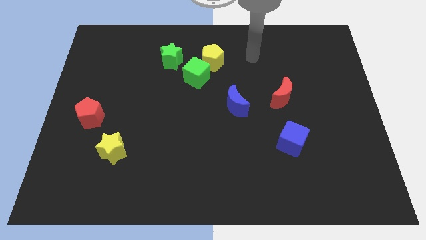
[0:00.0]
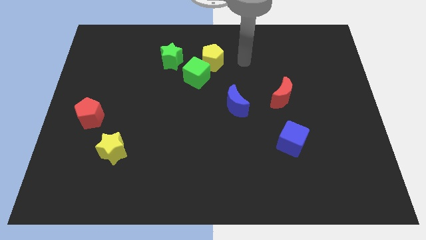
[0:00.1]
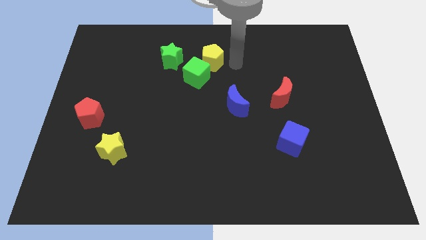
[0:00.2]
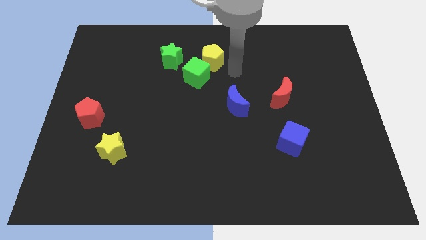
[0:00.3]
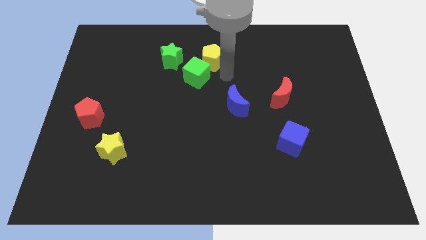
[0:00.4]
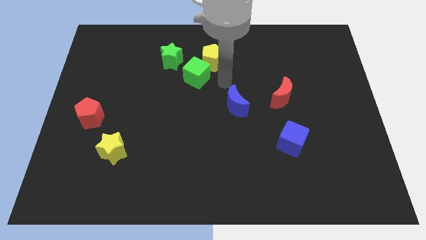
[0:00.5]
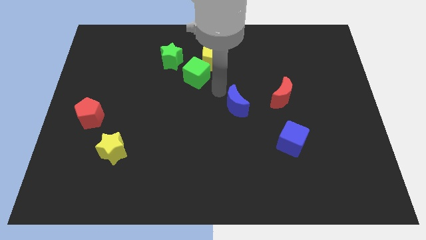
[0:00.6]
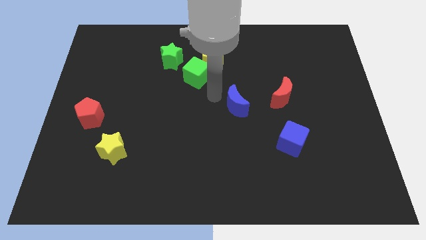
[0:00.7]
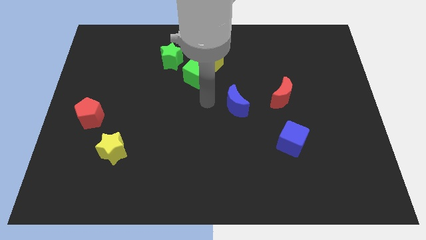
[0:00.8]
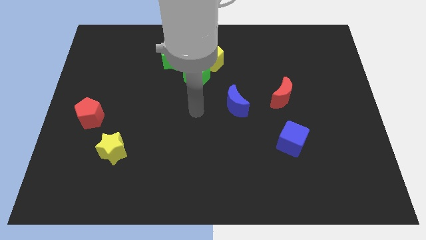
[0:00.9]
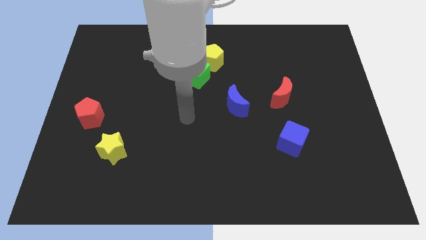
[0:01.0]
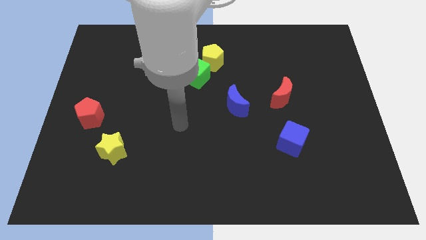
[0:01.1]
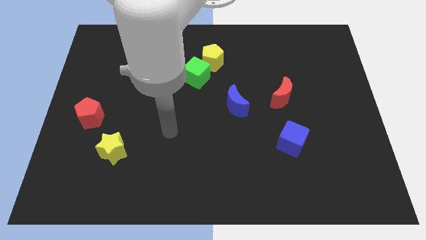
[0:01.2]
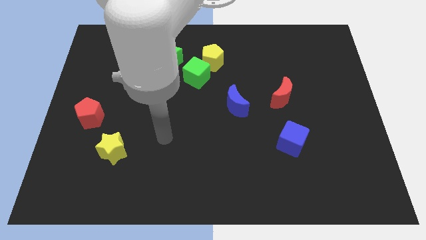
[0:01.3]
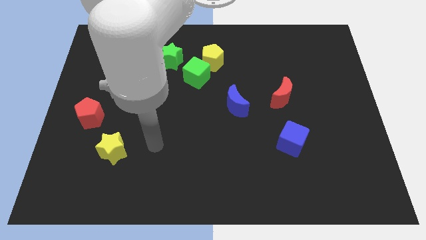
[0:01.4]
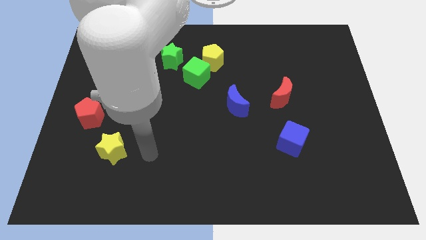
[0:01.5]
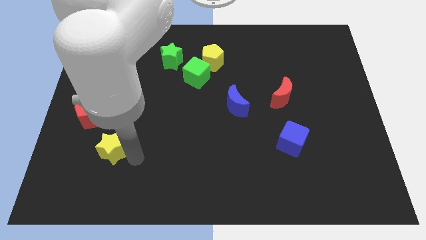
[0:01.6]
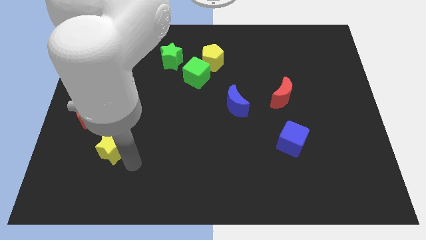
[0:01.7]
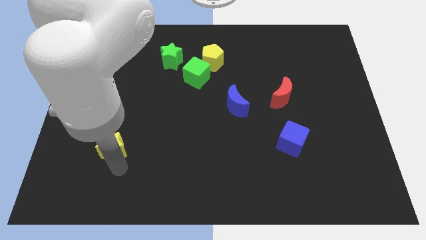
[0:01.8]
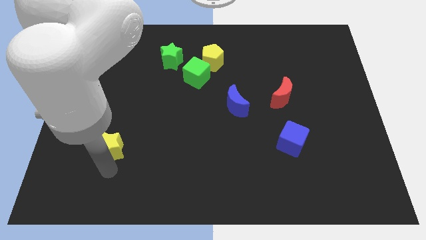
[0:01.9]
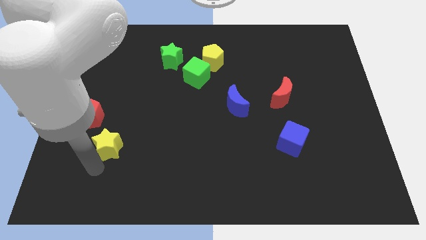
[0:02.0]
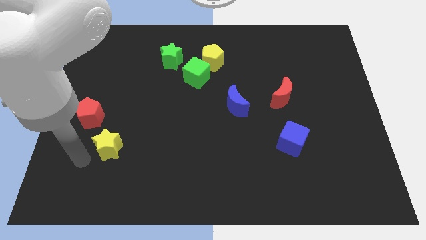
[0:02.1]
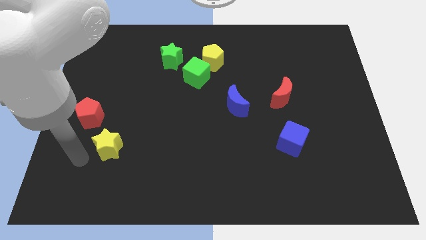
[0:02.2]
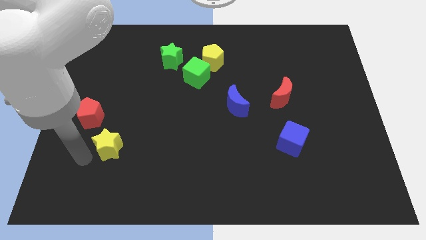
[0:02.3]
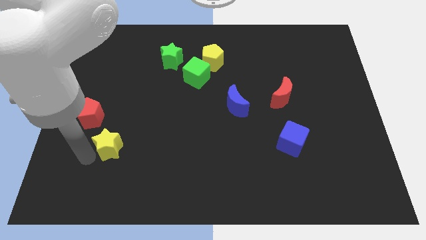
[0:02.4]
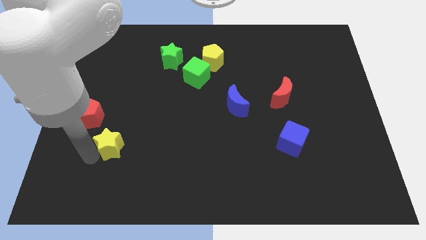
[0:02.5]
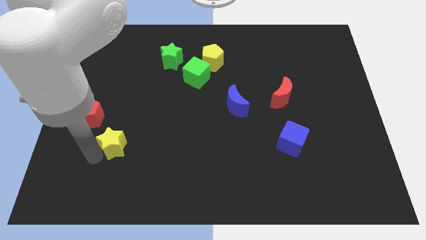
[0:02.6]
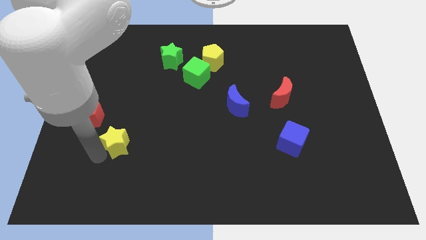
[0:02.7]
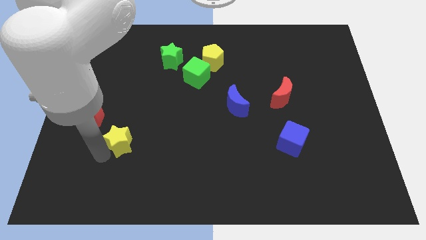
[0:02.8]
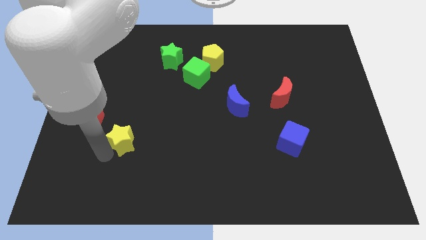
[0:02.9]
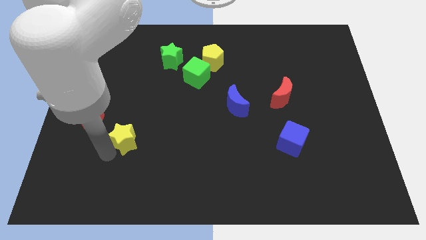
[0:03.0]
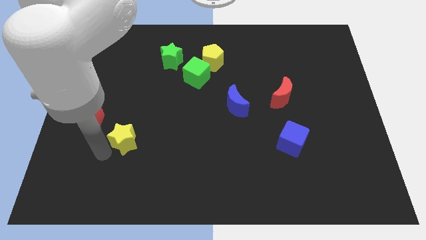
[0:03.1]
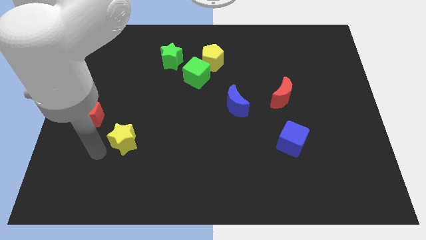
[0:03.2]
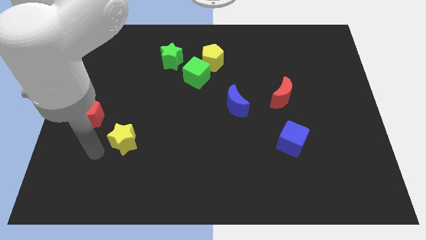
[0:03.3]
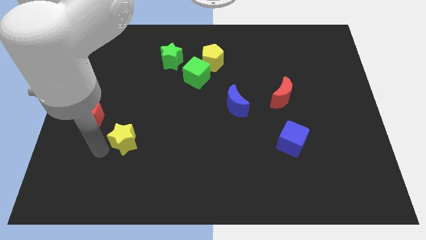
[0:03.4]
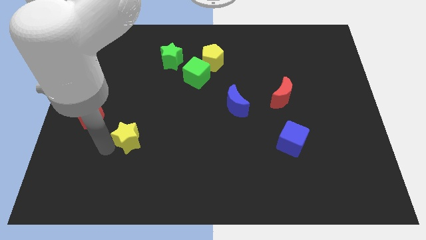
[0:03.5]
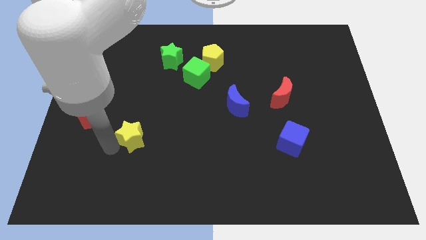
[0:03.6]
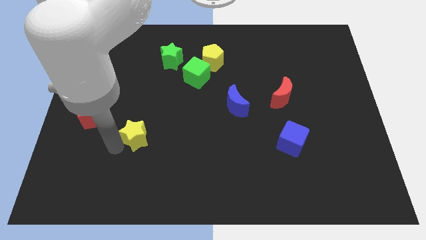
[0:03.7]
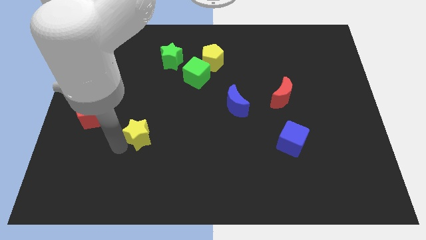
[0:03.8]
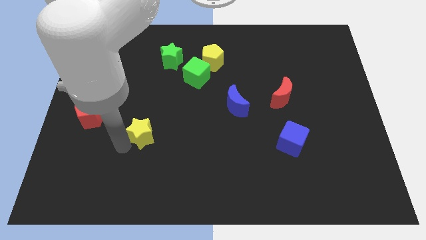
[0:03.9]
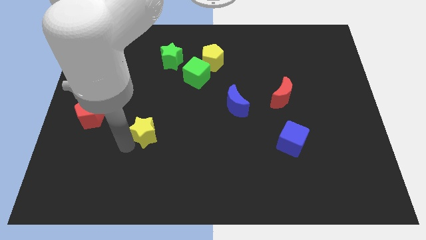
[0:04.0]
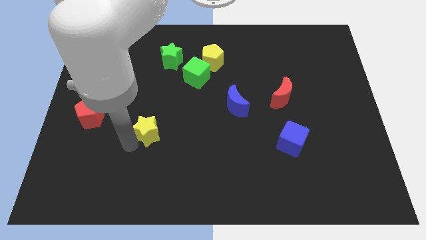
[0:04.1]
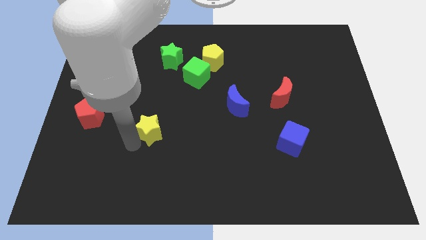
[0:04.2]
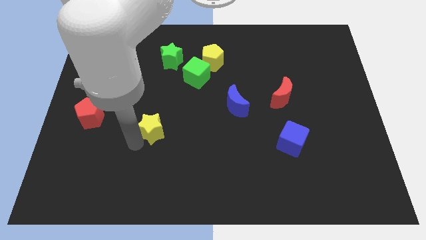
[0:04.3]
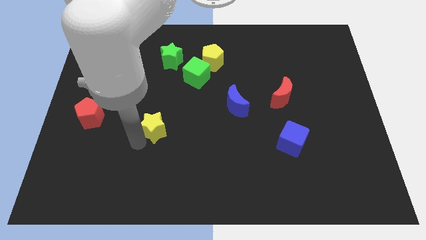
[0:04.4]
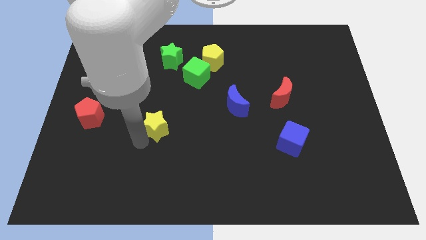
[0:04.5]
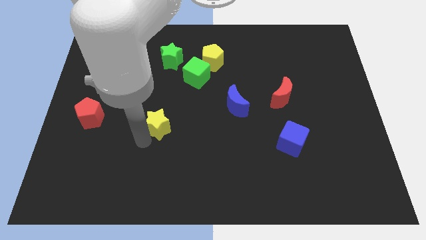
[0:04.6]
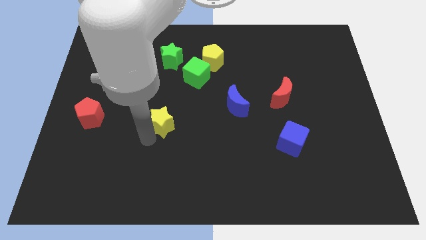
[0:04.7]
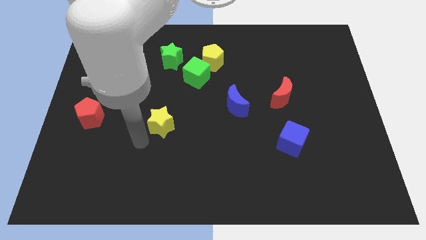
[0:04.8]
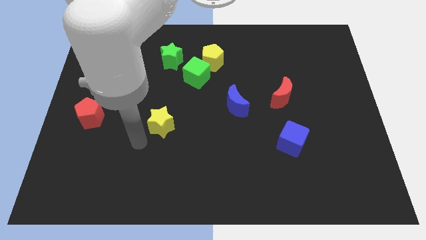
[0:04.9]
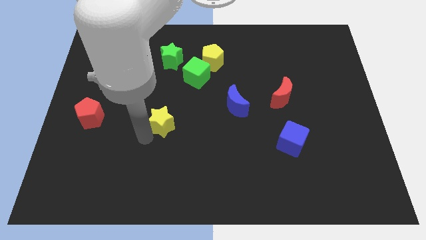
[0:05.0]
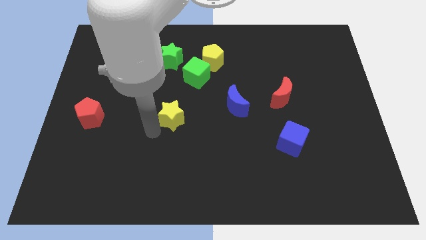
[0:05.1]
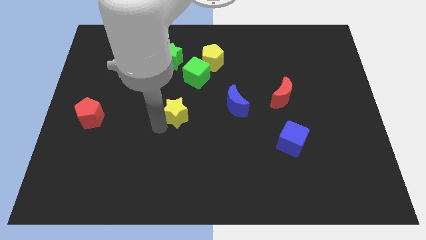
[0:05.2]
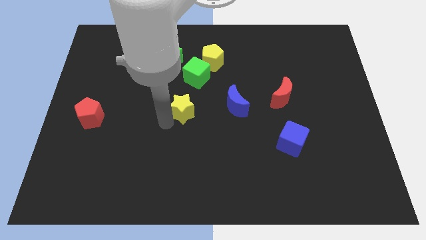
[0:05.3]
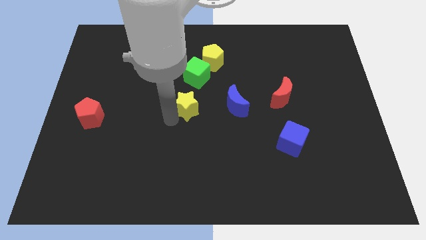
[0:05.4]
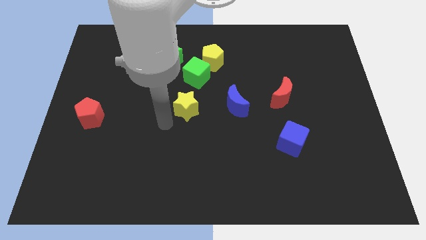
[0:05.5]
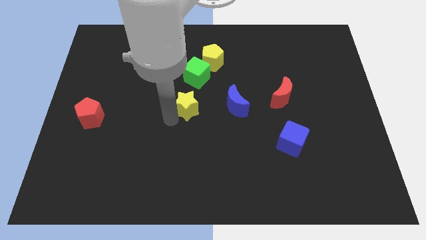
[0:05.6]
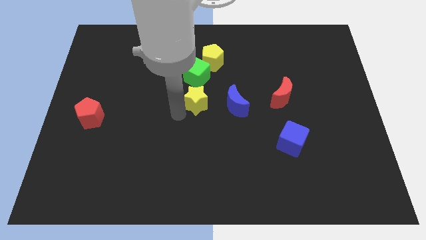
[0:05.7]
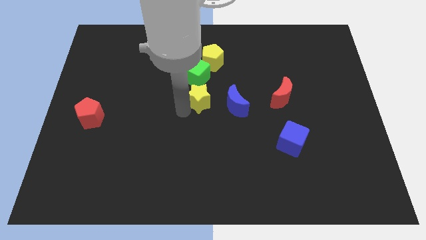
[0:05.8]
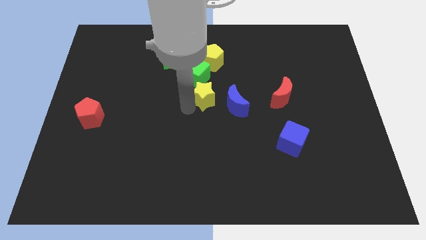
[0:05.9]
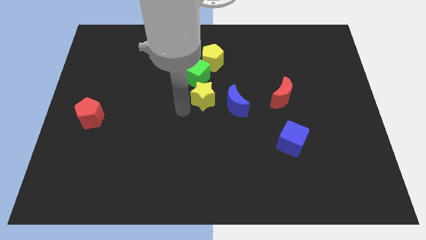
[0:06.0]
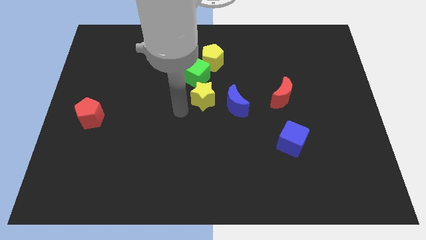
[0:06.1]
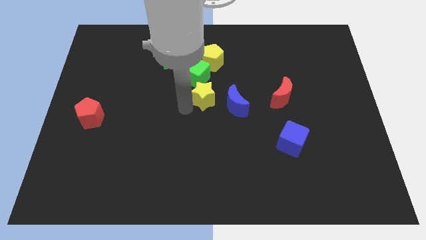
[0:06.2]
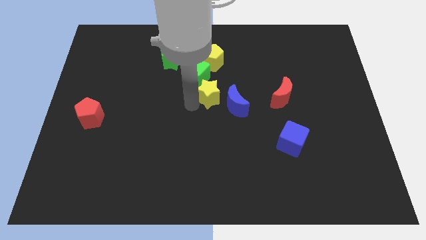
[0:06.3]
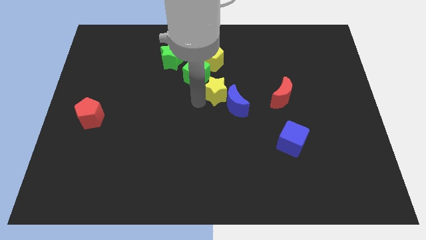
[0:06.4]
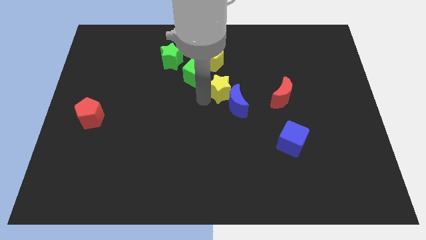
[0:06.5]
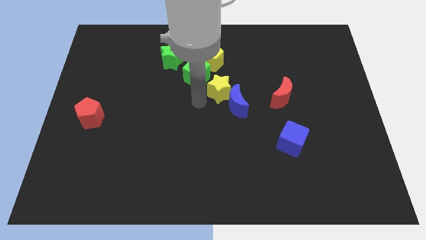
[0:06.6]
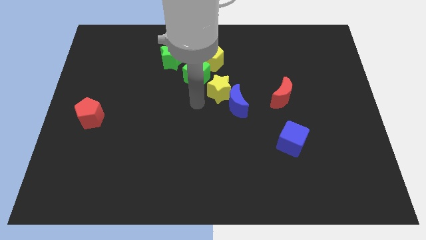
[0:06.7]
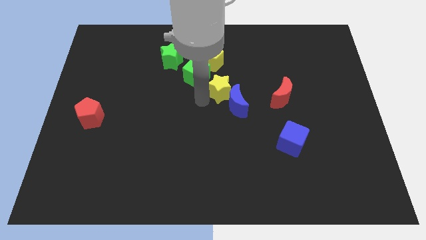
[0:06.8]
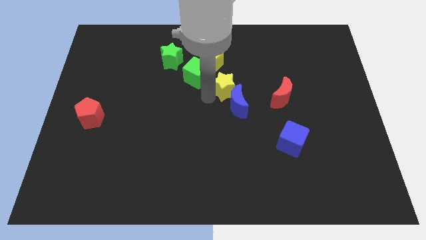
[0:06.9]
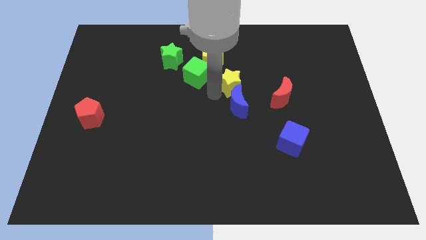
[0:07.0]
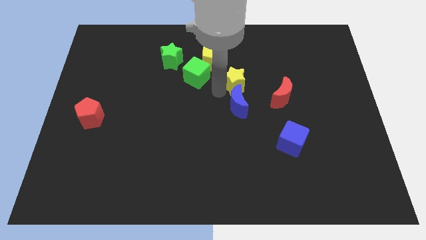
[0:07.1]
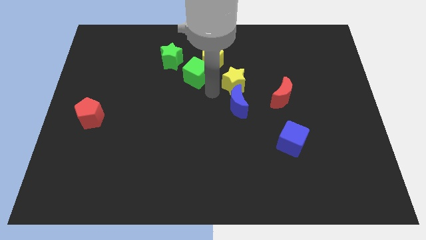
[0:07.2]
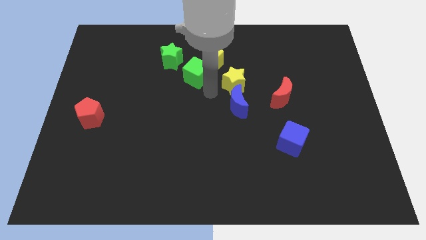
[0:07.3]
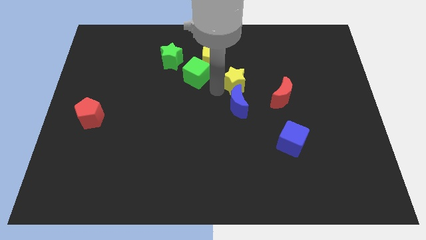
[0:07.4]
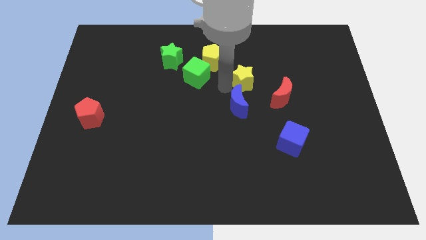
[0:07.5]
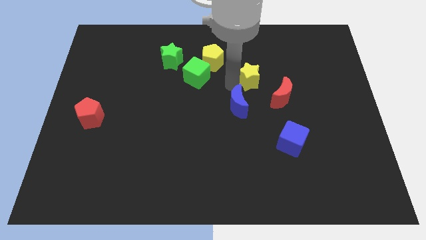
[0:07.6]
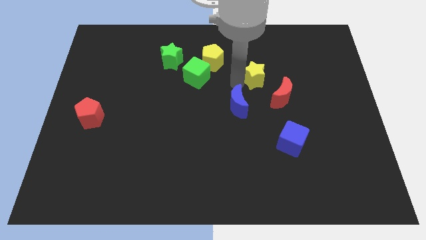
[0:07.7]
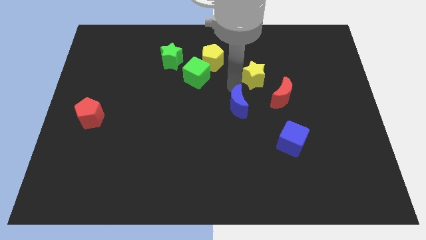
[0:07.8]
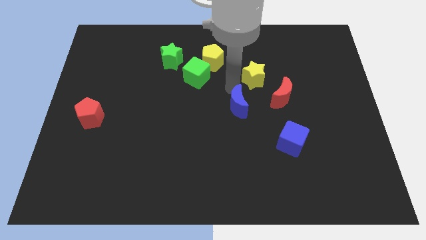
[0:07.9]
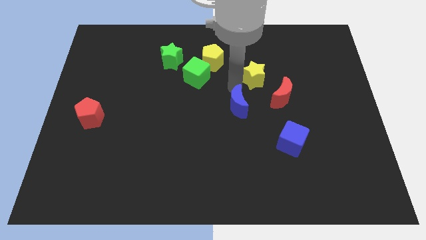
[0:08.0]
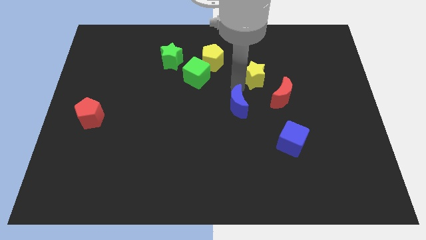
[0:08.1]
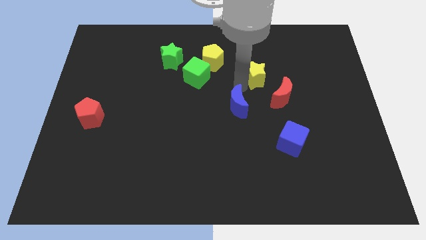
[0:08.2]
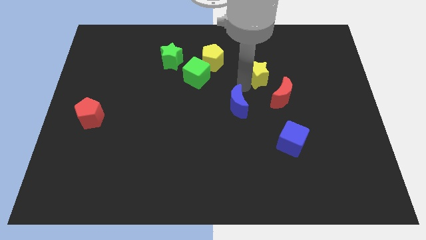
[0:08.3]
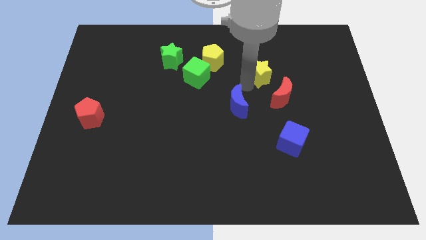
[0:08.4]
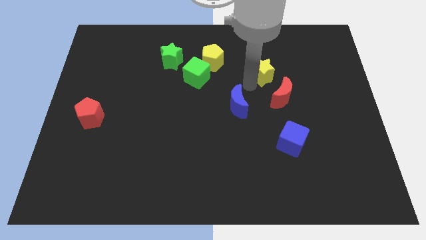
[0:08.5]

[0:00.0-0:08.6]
push the yellow star above the red moon
